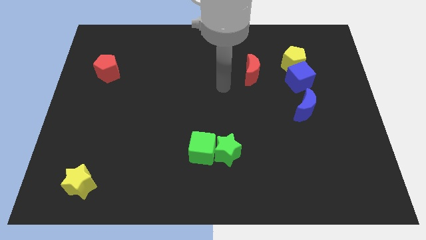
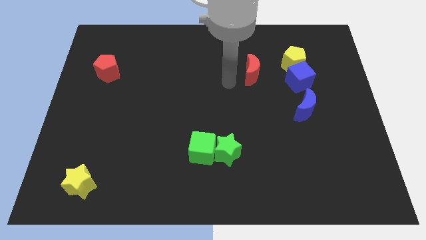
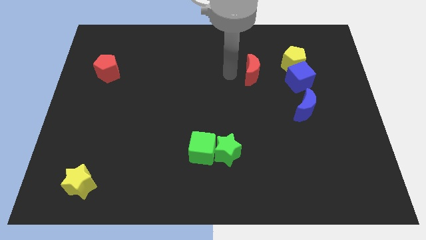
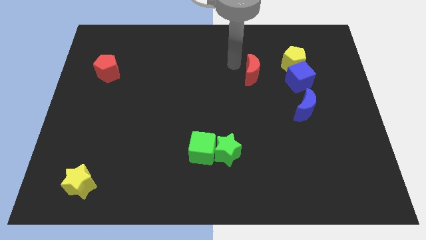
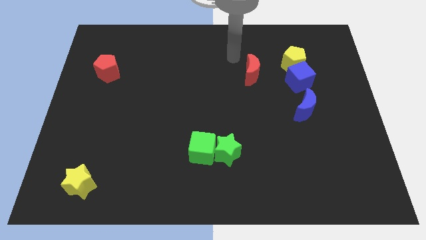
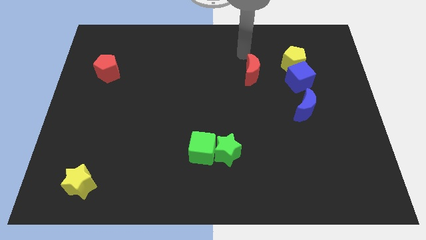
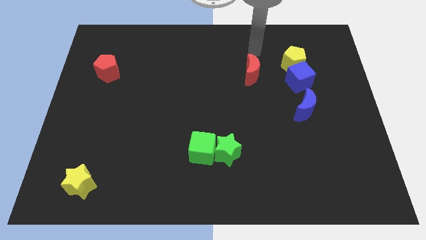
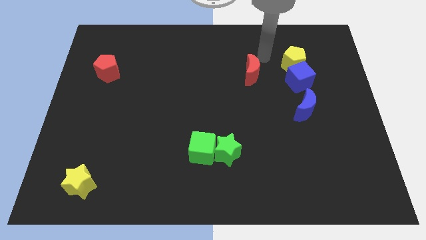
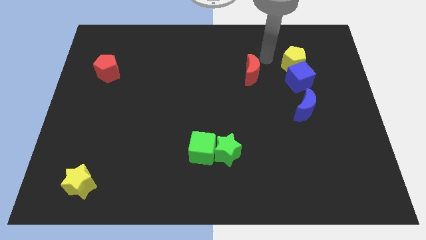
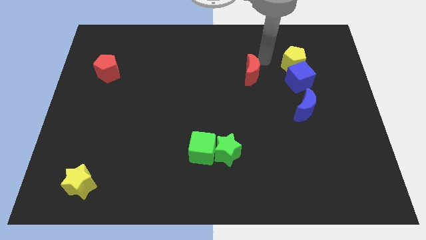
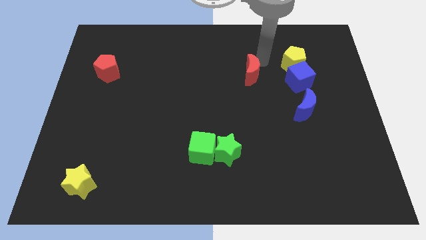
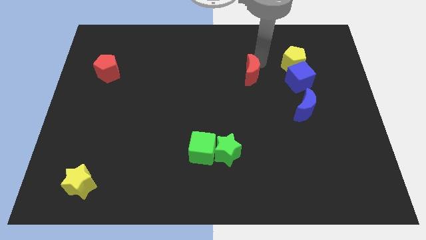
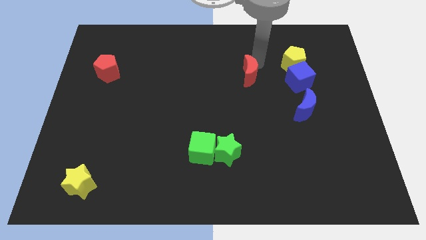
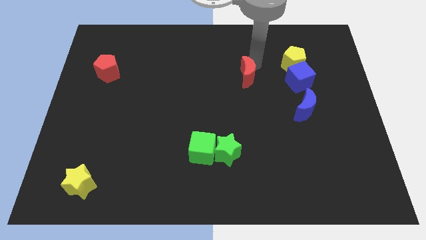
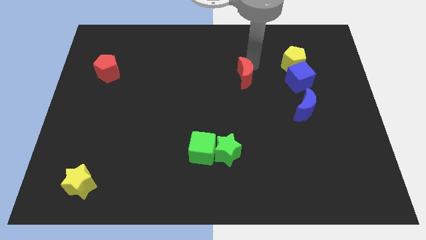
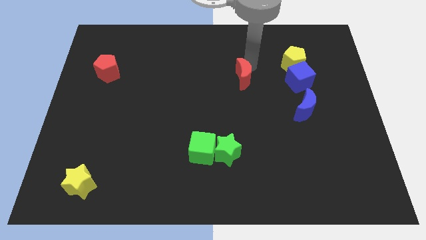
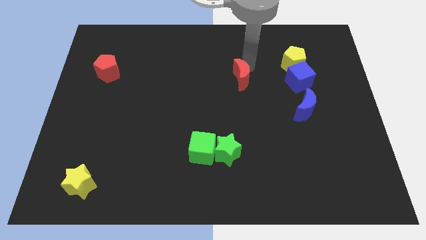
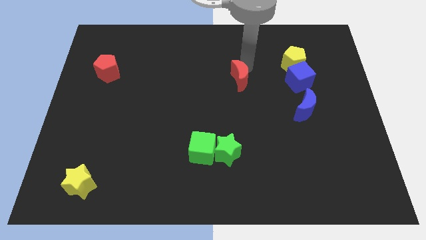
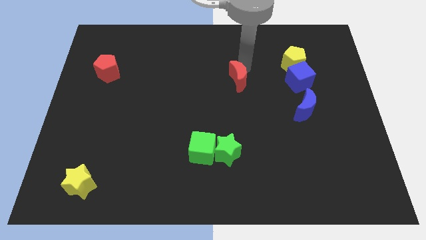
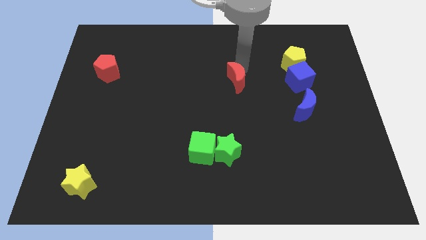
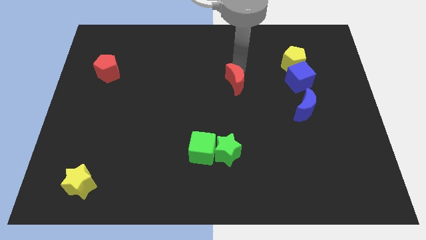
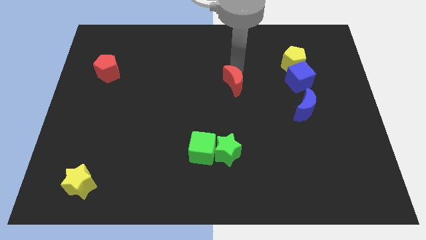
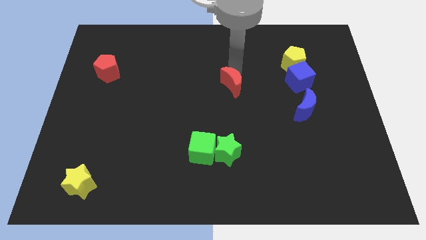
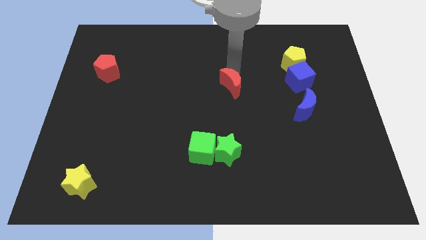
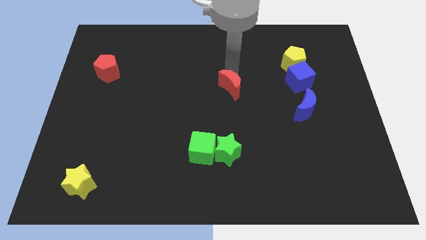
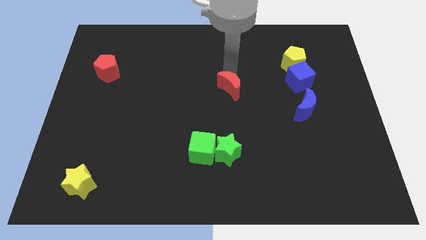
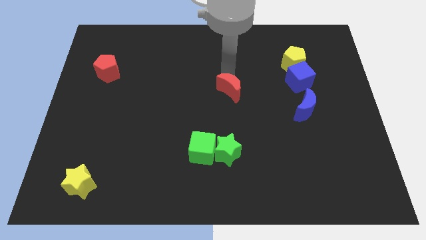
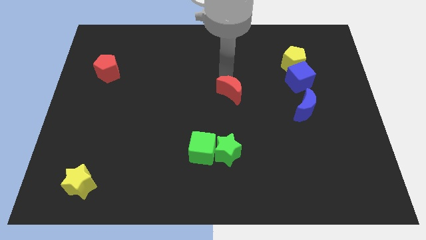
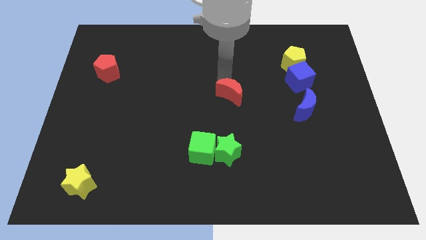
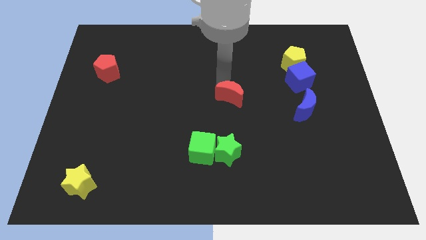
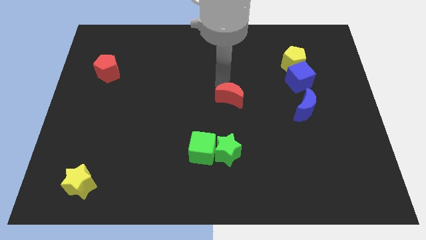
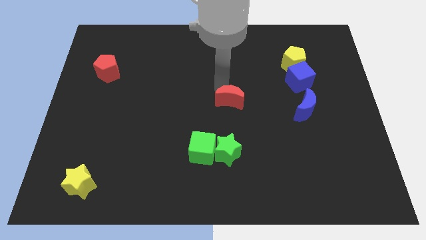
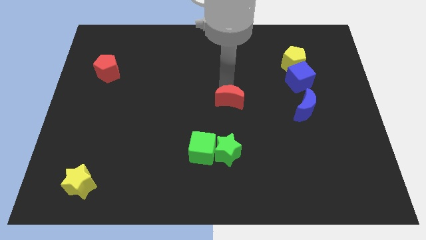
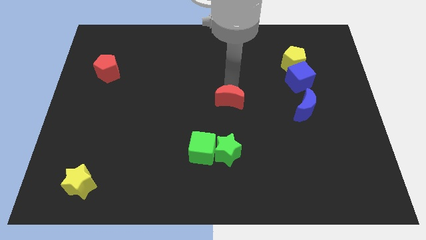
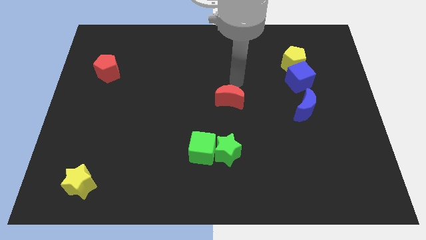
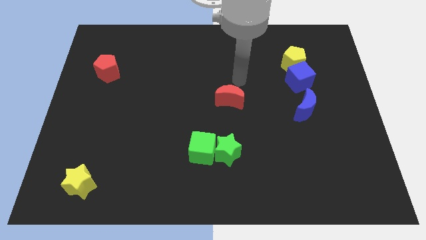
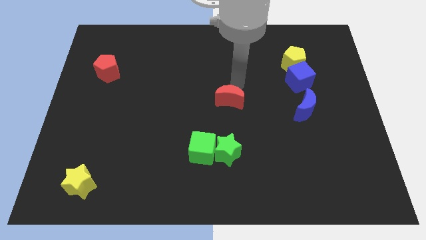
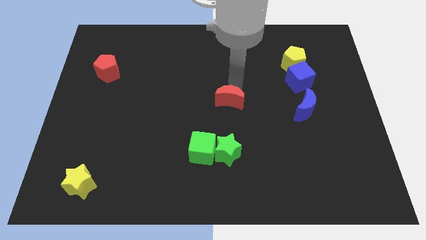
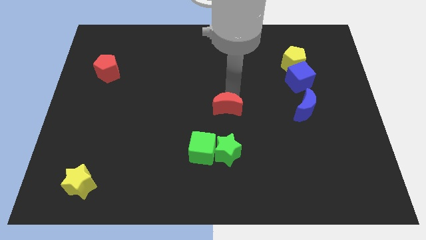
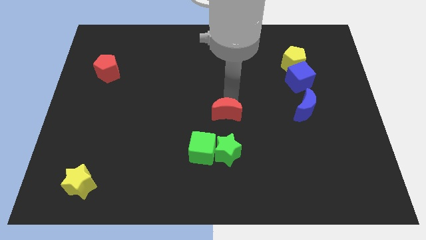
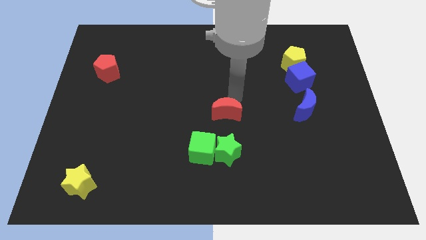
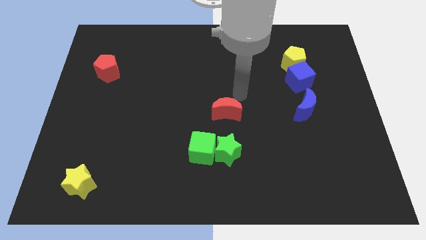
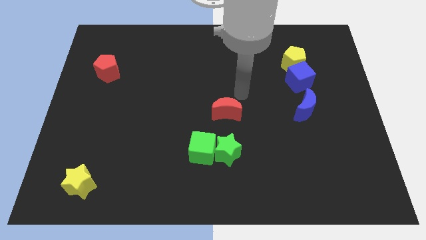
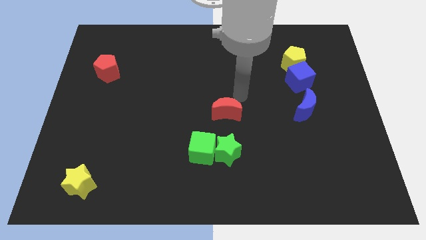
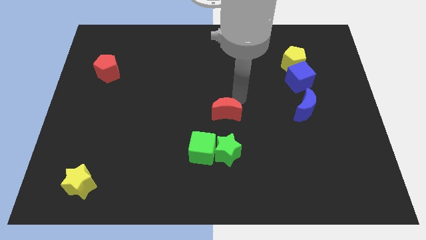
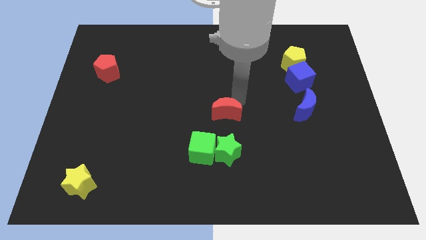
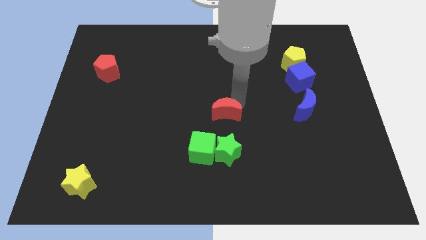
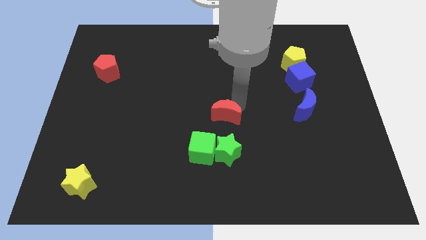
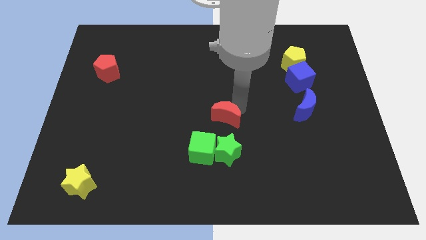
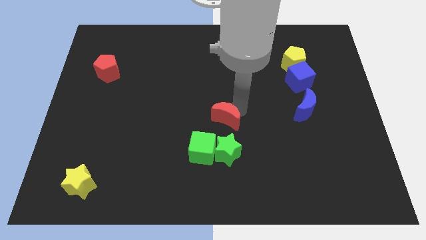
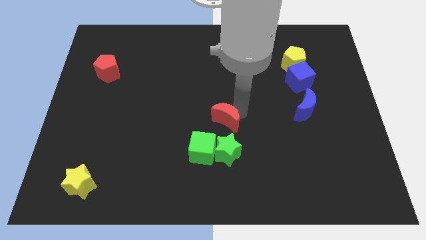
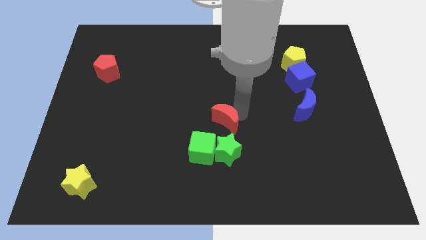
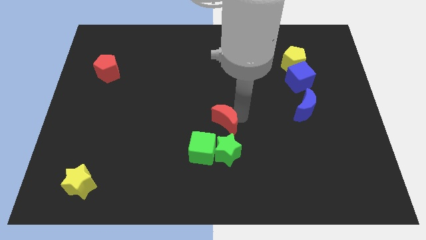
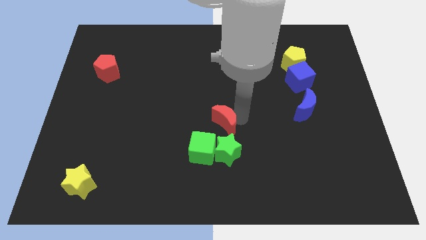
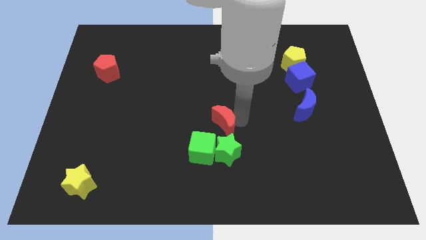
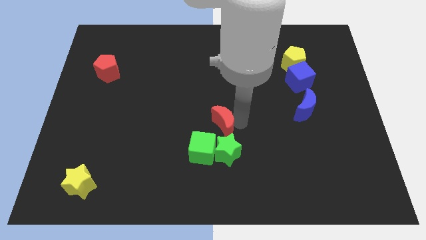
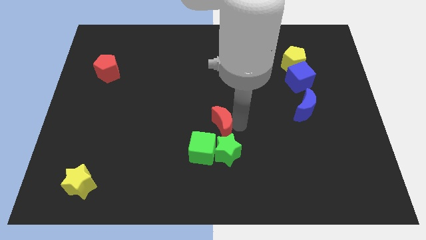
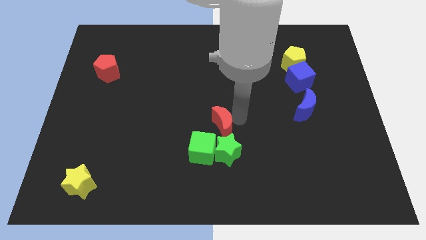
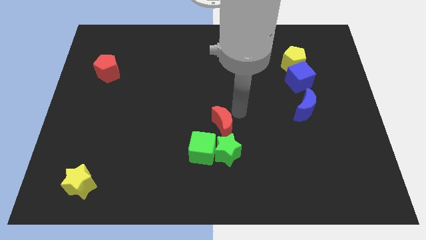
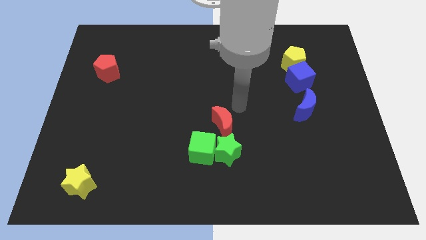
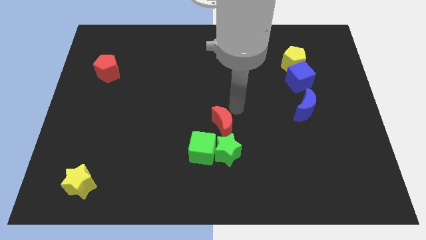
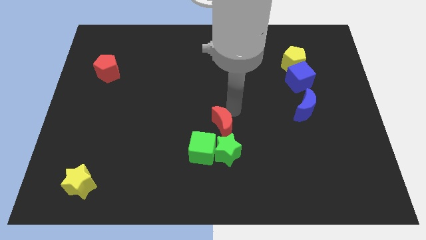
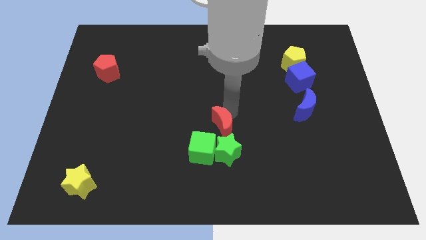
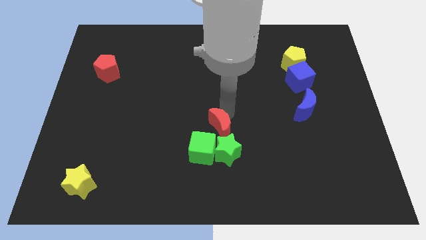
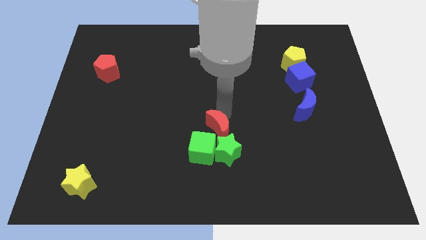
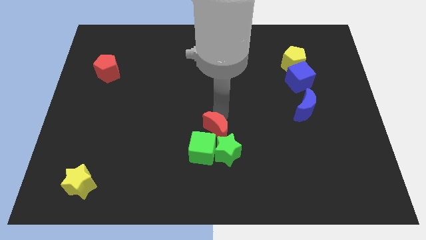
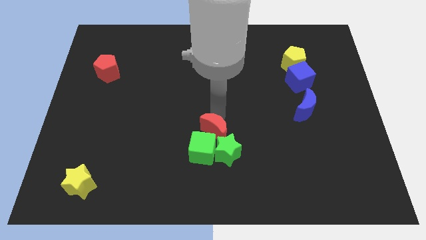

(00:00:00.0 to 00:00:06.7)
push the red moon close to the green cube

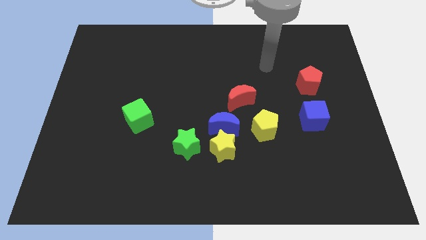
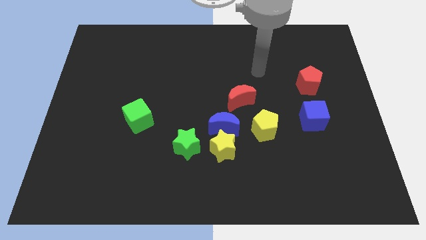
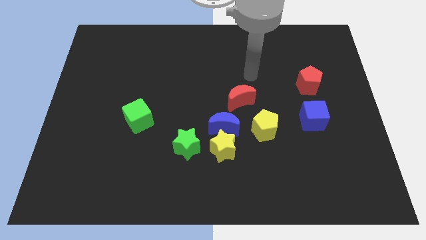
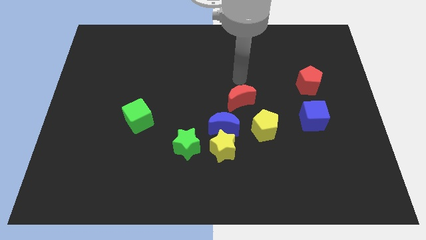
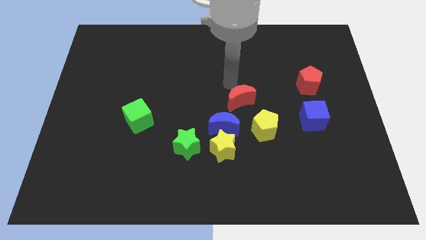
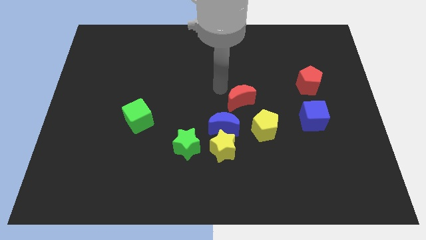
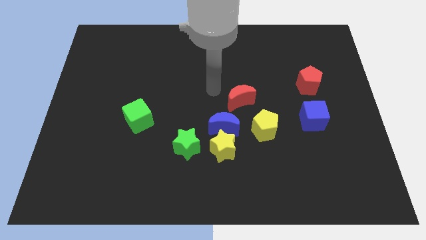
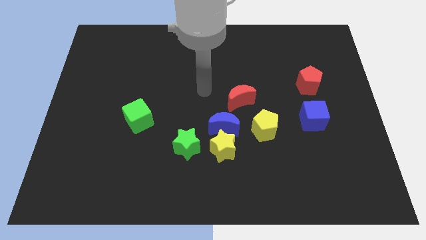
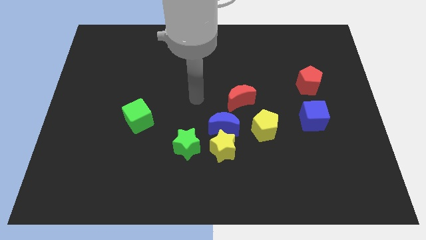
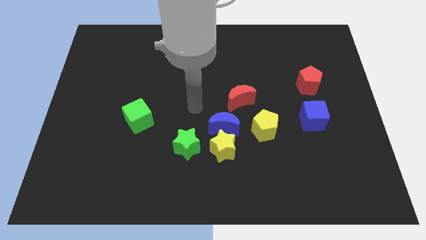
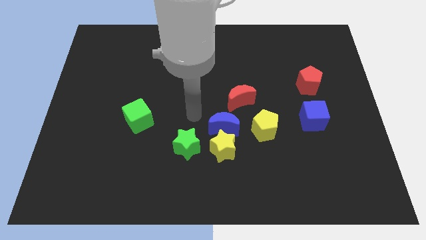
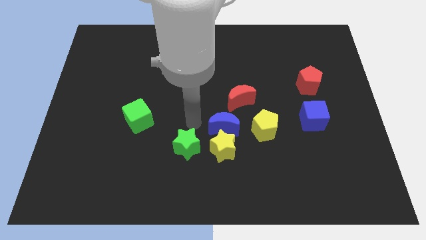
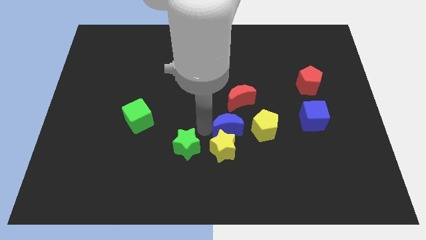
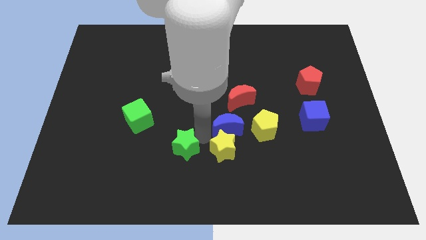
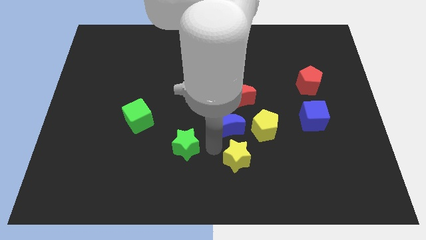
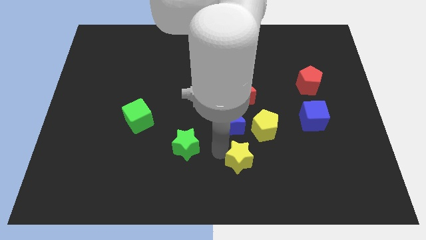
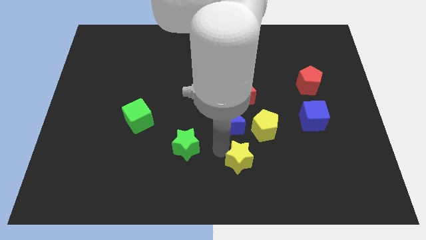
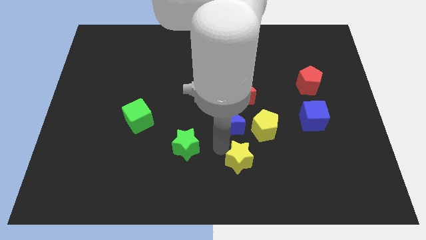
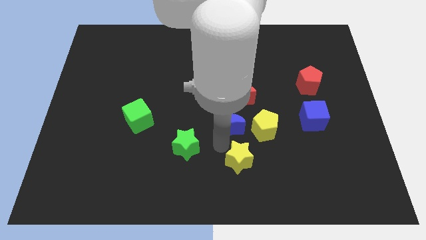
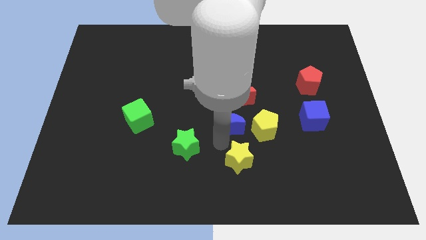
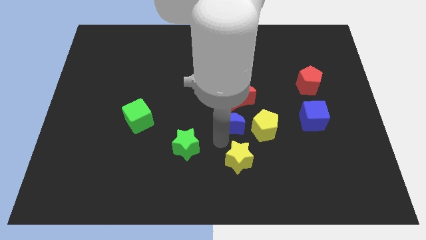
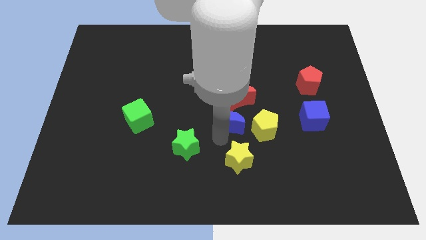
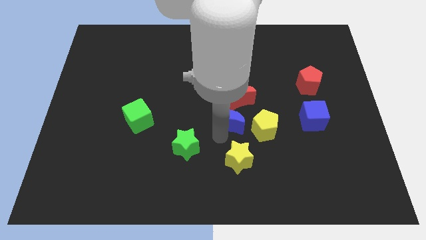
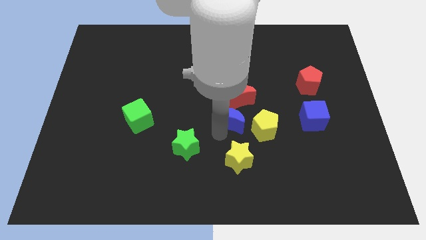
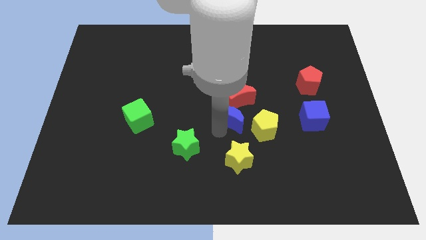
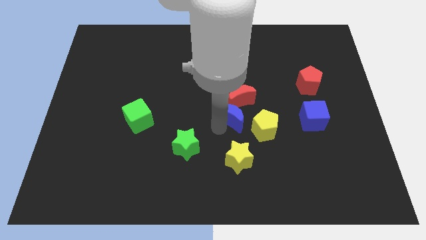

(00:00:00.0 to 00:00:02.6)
slide the blue moon next to the red moon
